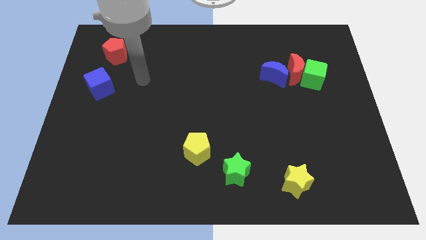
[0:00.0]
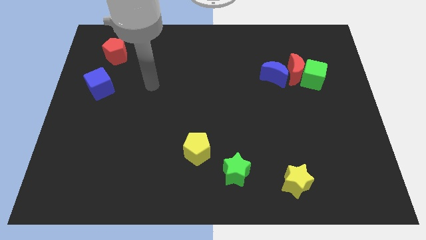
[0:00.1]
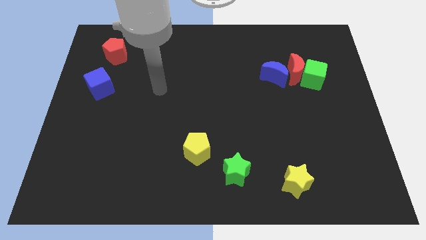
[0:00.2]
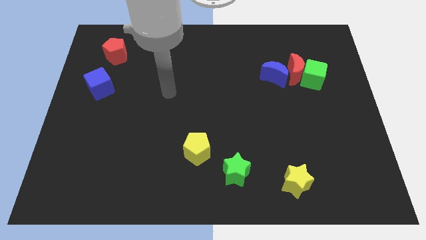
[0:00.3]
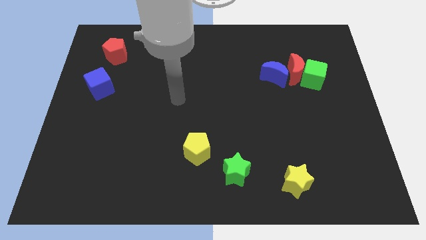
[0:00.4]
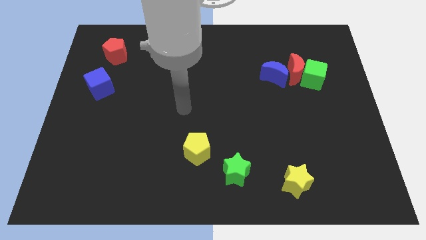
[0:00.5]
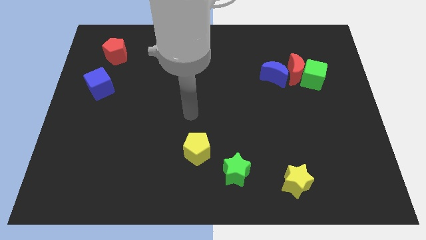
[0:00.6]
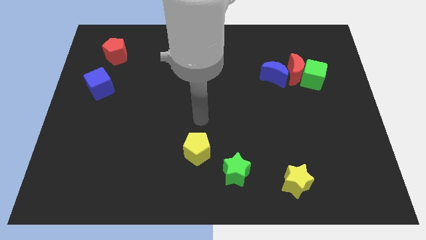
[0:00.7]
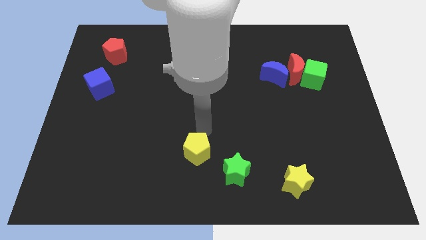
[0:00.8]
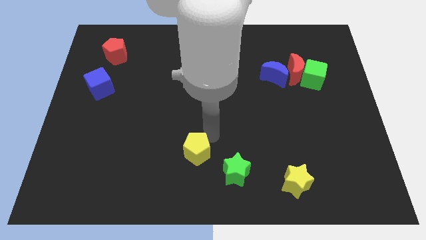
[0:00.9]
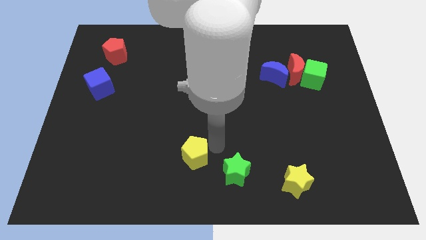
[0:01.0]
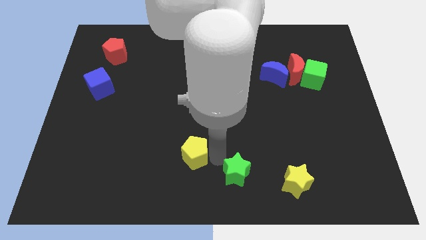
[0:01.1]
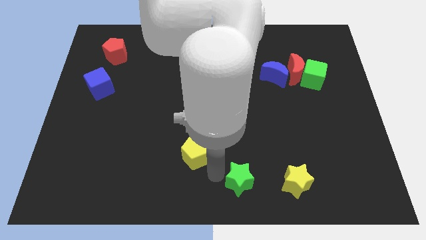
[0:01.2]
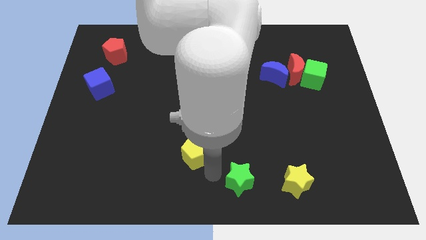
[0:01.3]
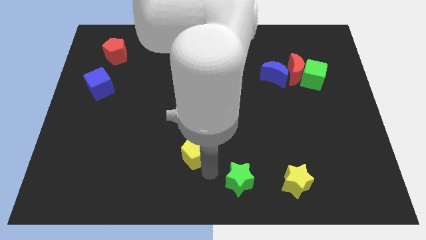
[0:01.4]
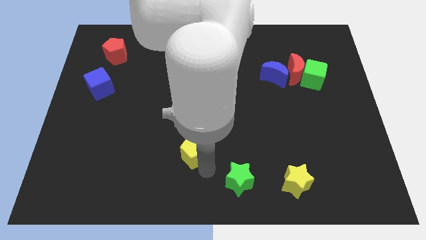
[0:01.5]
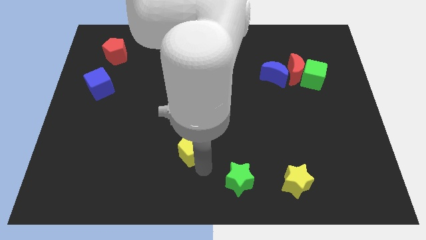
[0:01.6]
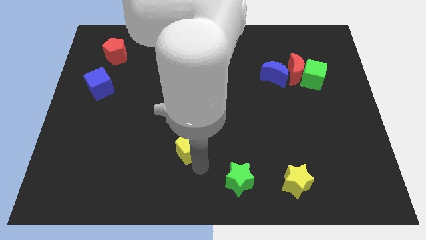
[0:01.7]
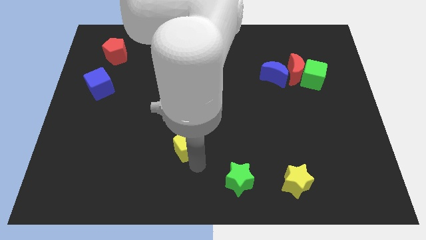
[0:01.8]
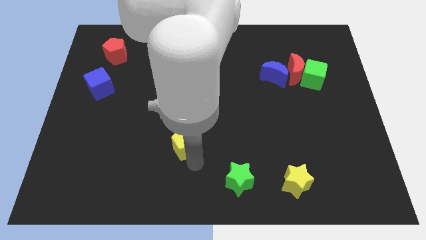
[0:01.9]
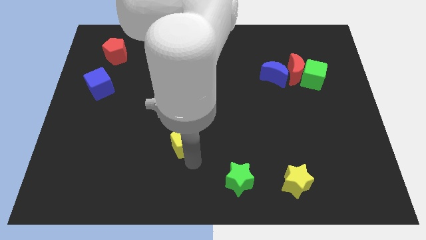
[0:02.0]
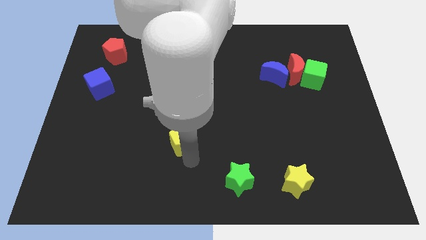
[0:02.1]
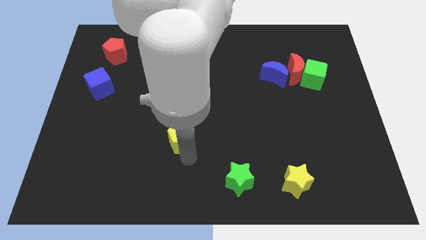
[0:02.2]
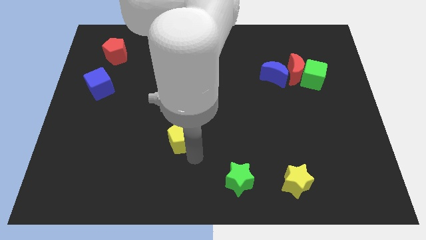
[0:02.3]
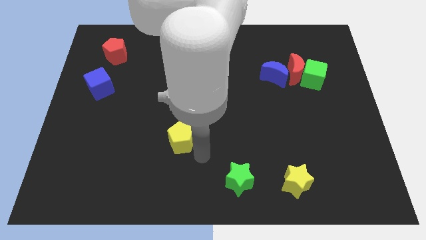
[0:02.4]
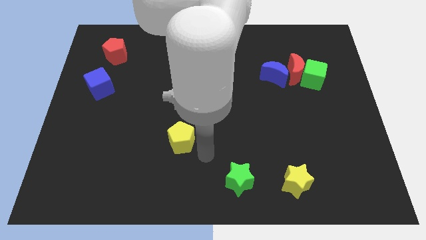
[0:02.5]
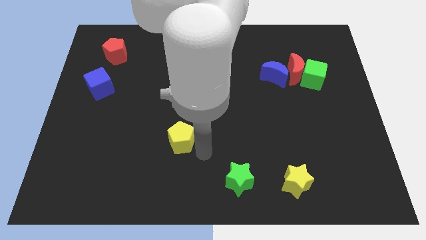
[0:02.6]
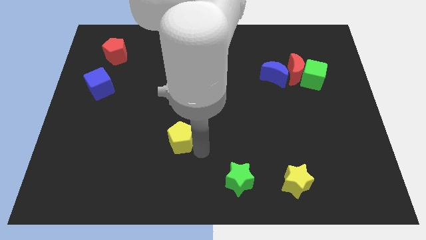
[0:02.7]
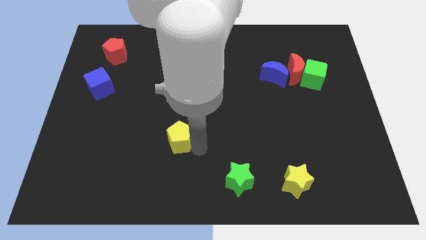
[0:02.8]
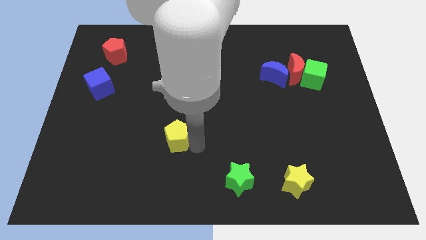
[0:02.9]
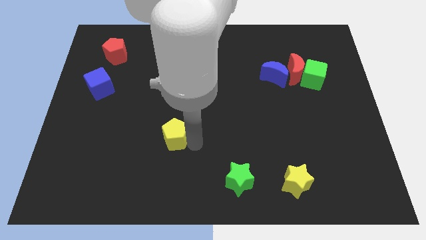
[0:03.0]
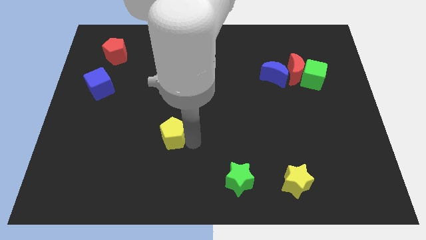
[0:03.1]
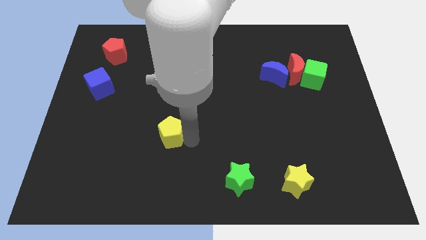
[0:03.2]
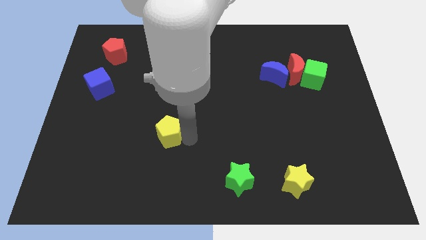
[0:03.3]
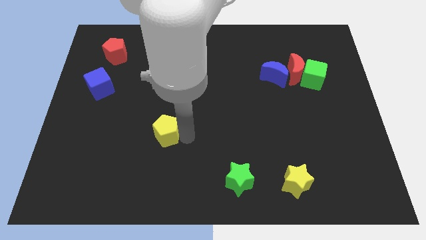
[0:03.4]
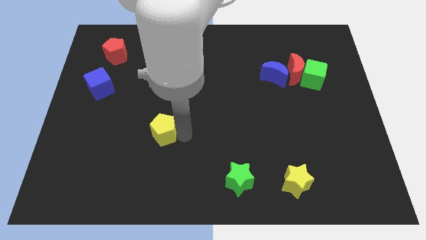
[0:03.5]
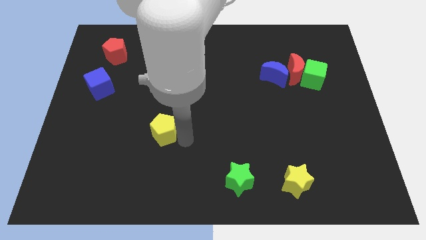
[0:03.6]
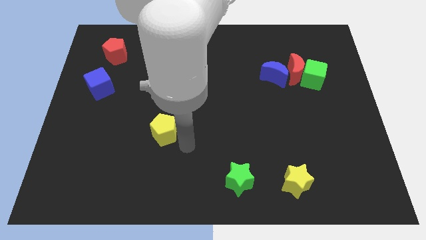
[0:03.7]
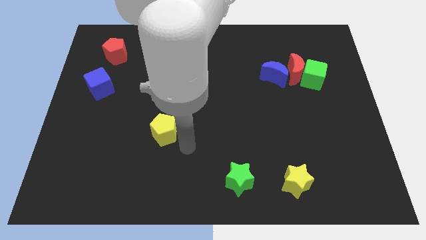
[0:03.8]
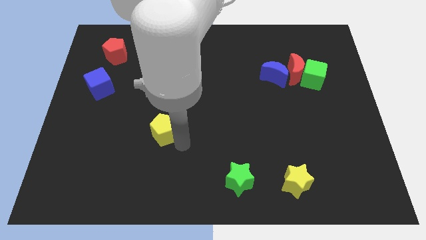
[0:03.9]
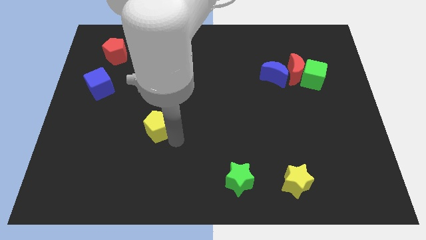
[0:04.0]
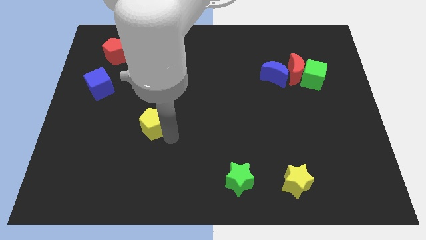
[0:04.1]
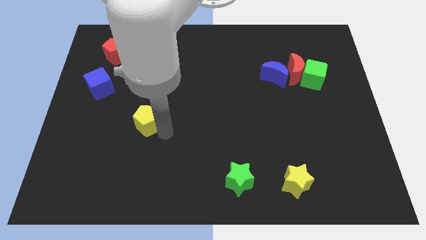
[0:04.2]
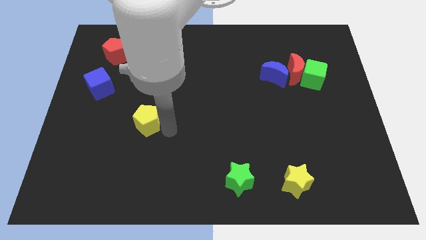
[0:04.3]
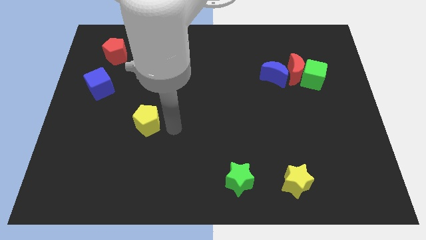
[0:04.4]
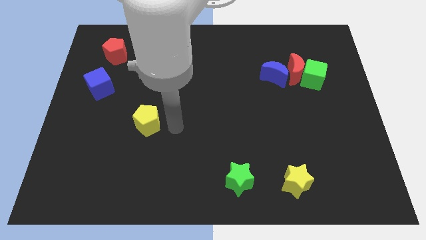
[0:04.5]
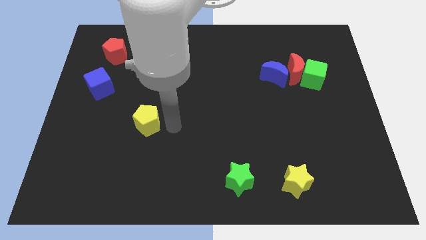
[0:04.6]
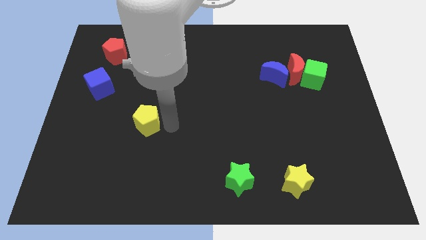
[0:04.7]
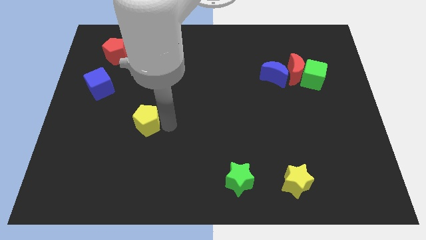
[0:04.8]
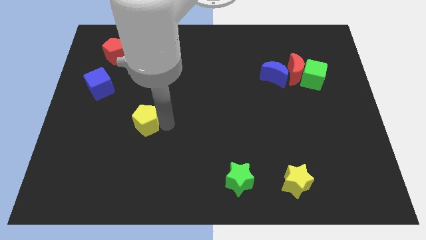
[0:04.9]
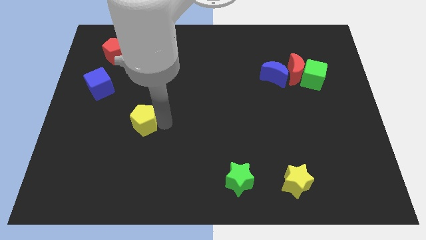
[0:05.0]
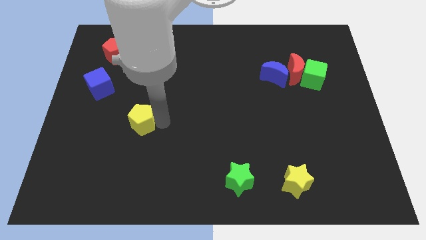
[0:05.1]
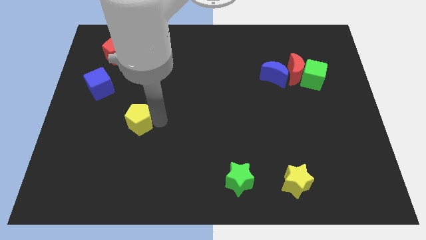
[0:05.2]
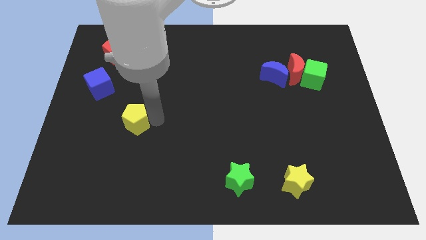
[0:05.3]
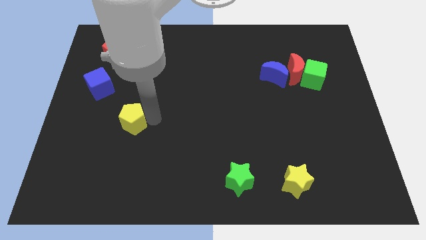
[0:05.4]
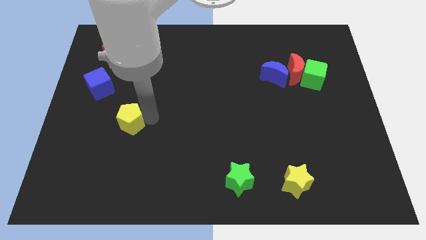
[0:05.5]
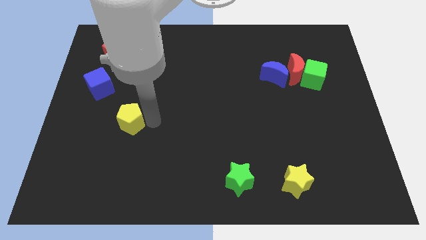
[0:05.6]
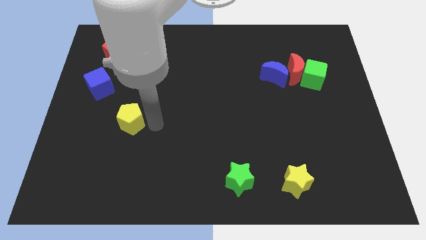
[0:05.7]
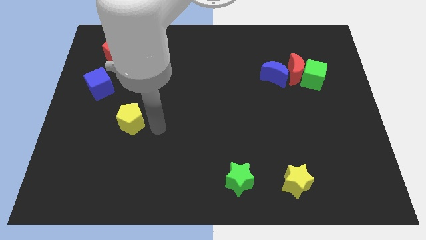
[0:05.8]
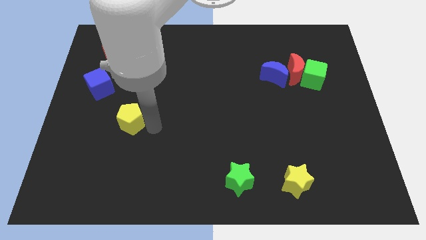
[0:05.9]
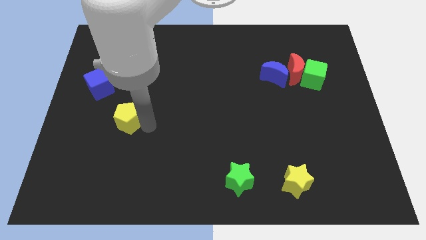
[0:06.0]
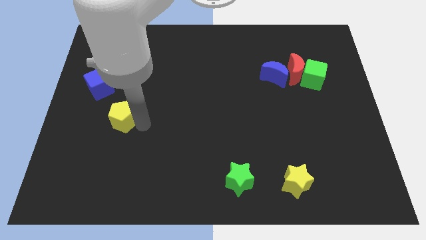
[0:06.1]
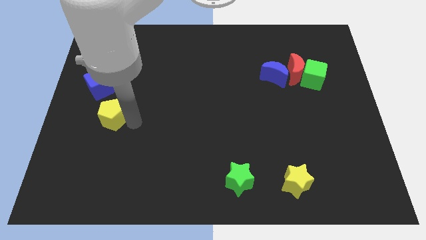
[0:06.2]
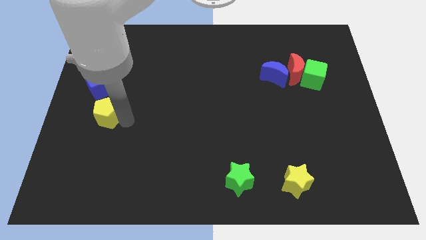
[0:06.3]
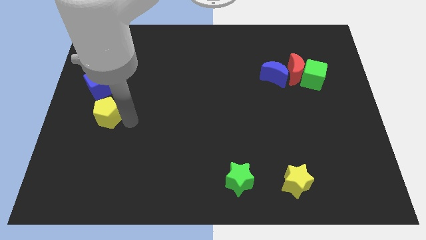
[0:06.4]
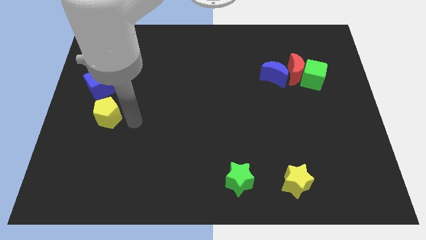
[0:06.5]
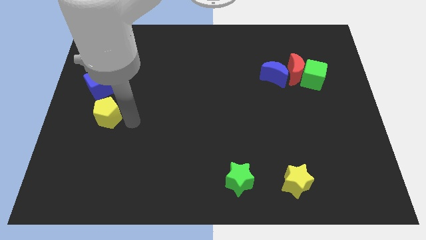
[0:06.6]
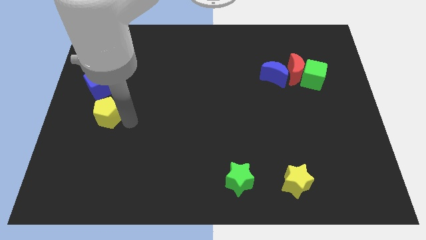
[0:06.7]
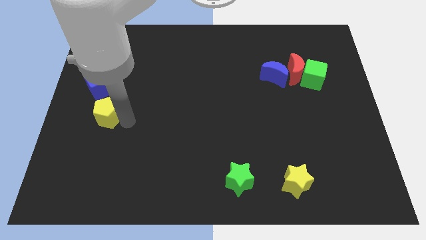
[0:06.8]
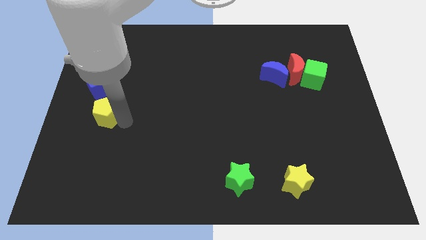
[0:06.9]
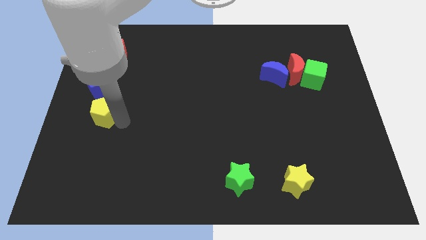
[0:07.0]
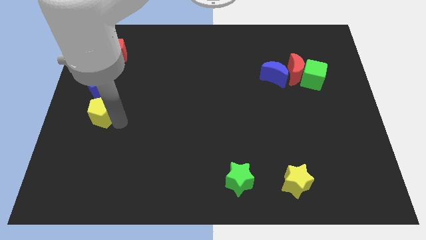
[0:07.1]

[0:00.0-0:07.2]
push the yellow pentagon to the center left
